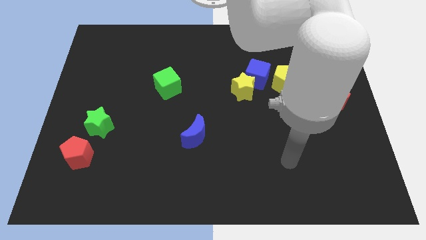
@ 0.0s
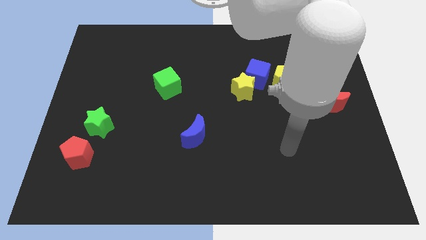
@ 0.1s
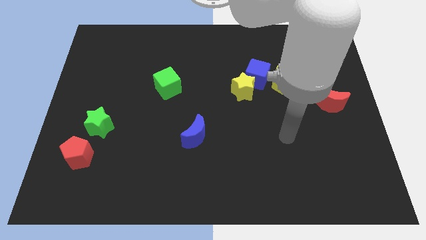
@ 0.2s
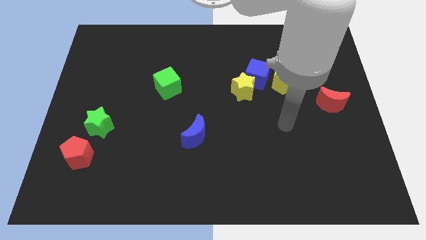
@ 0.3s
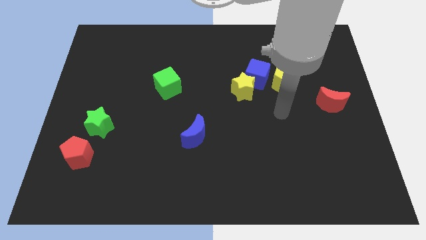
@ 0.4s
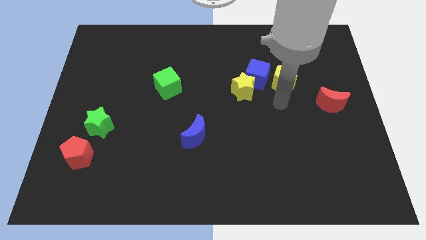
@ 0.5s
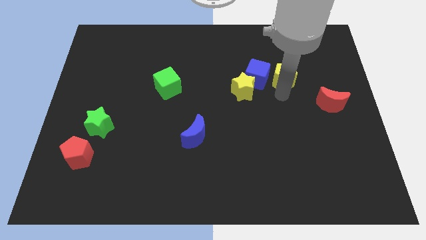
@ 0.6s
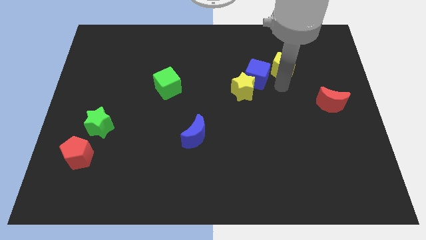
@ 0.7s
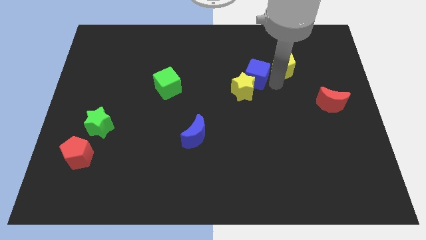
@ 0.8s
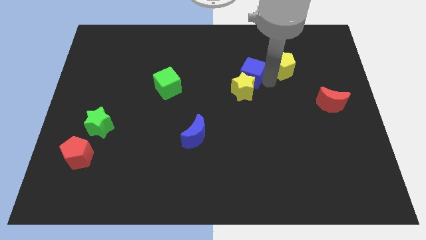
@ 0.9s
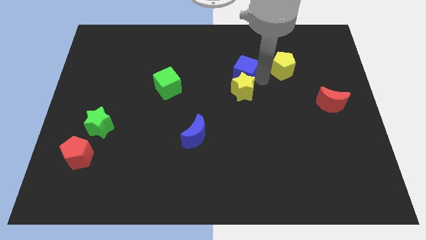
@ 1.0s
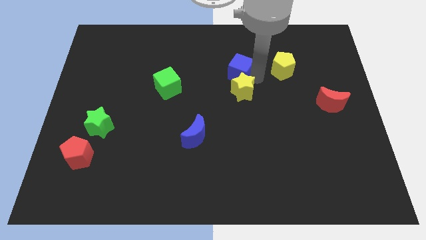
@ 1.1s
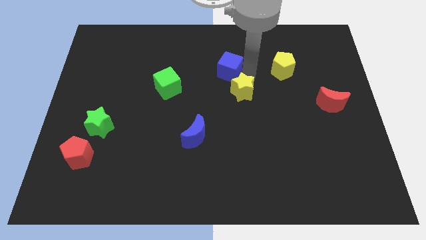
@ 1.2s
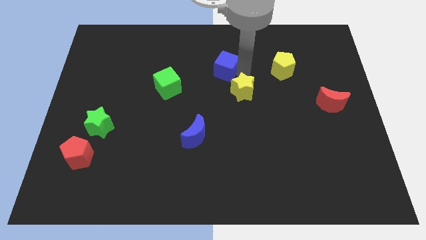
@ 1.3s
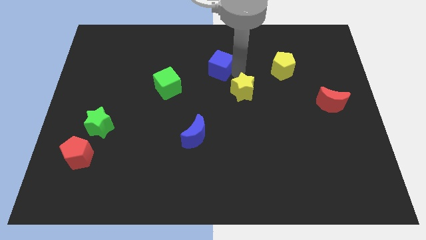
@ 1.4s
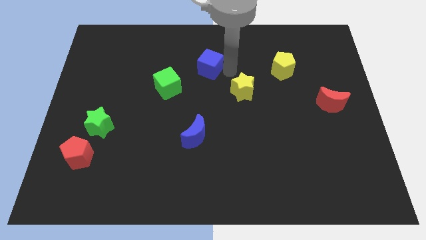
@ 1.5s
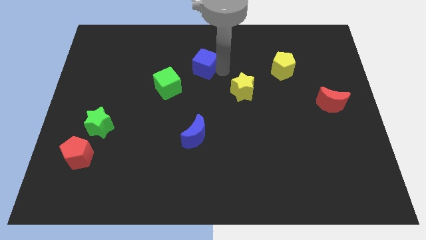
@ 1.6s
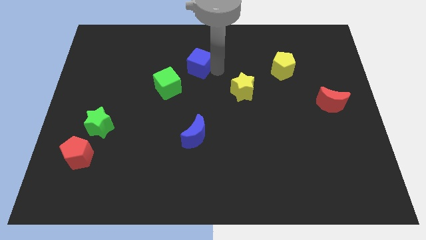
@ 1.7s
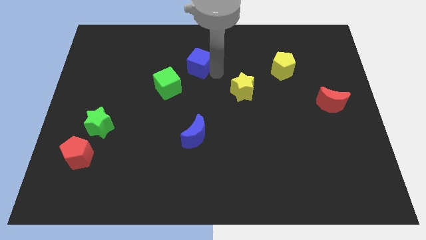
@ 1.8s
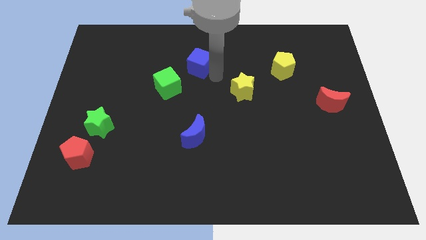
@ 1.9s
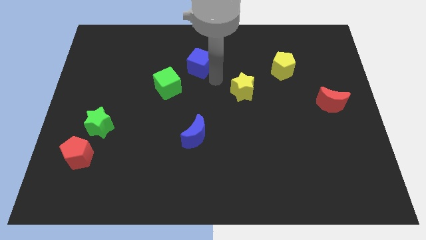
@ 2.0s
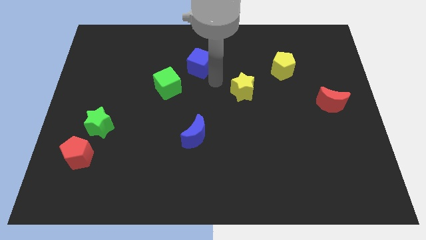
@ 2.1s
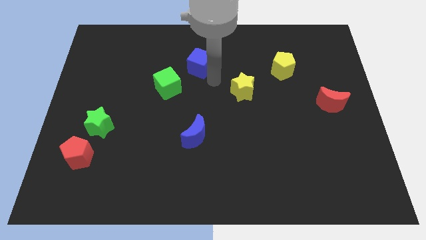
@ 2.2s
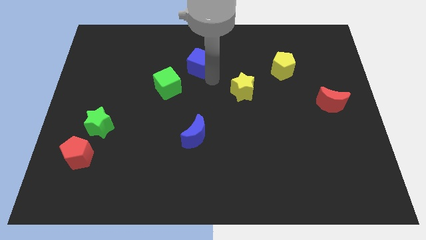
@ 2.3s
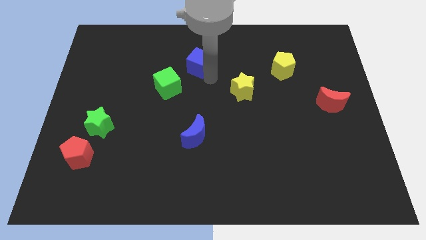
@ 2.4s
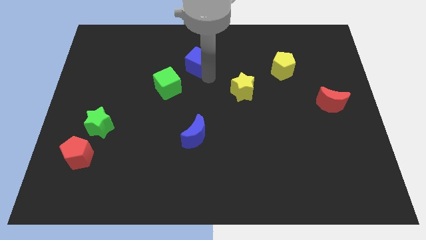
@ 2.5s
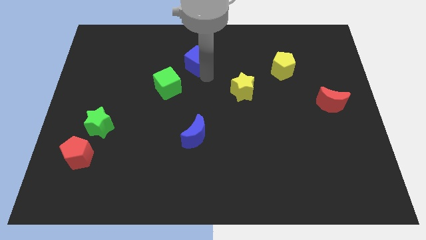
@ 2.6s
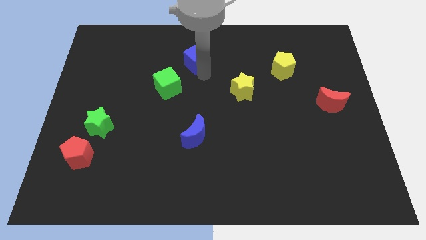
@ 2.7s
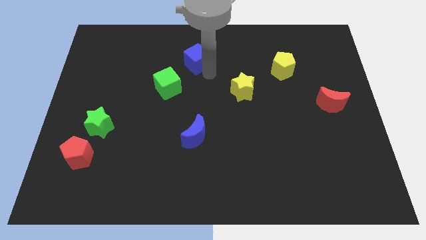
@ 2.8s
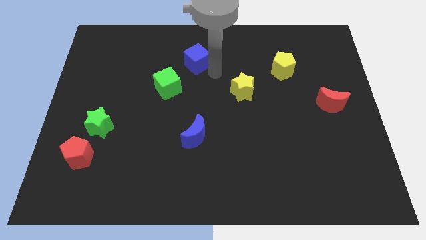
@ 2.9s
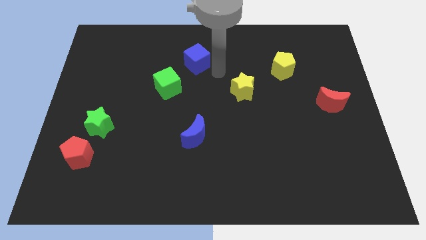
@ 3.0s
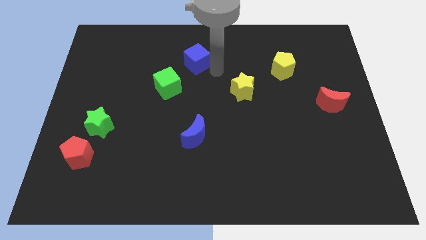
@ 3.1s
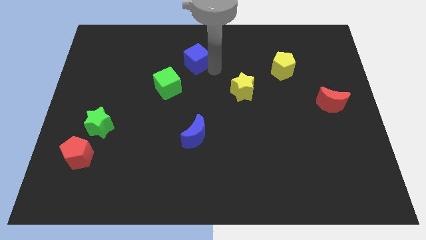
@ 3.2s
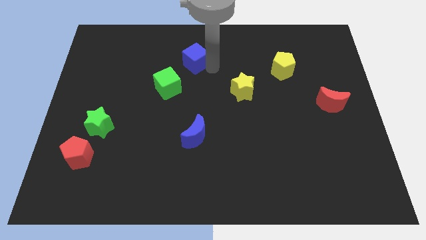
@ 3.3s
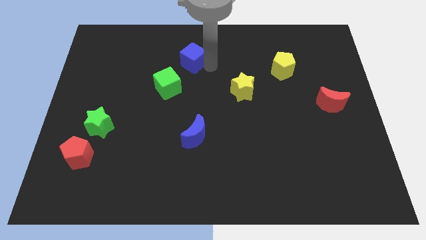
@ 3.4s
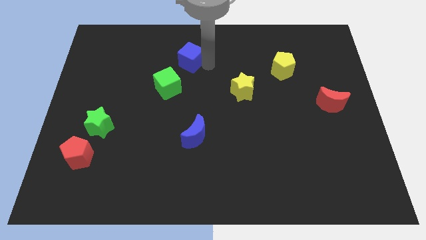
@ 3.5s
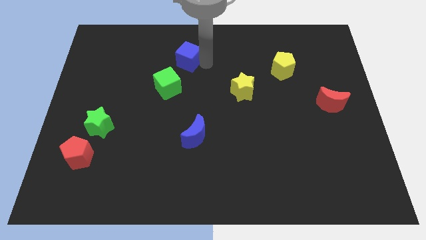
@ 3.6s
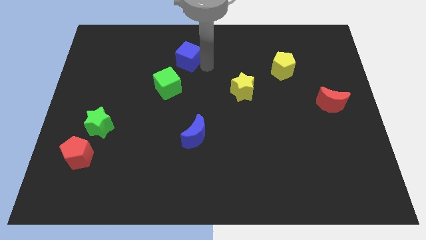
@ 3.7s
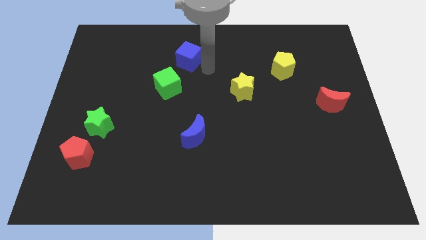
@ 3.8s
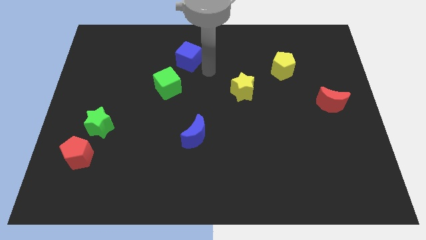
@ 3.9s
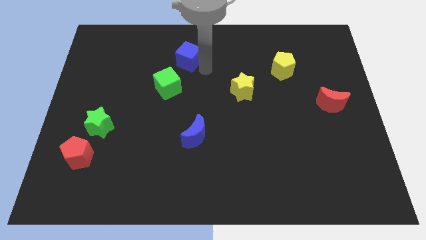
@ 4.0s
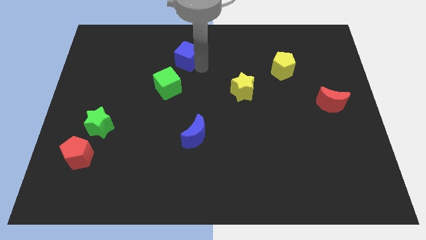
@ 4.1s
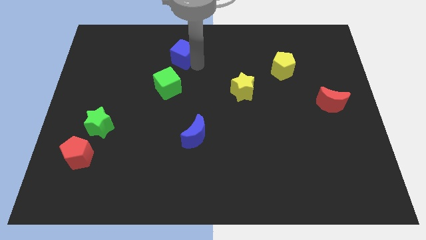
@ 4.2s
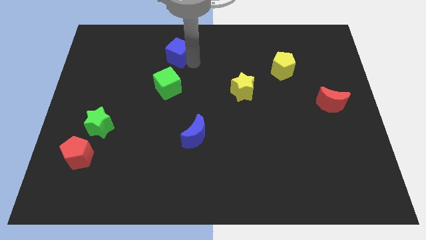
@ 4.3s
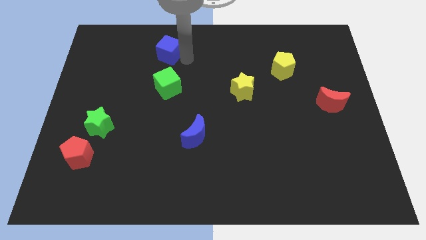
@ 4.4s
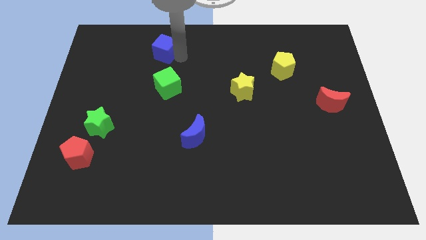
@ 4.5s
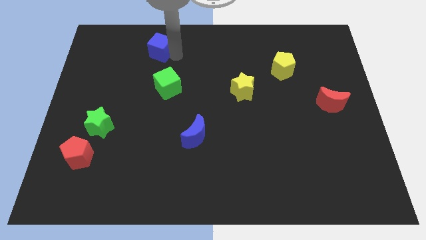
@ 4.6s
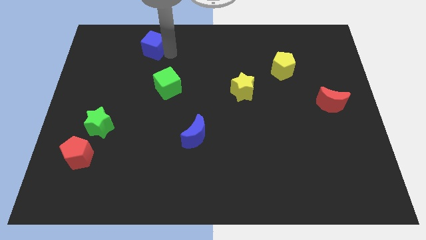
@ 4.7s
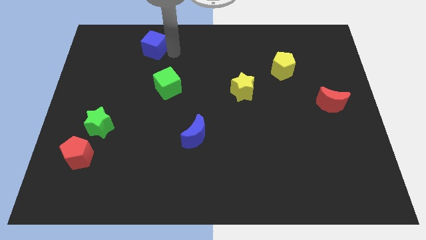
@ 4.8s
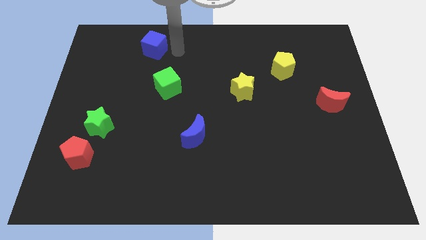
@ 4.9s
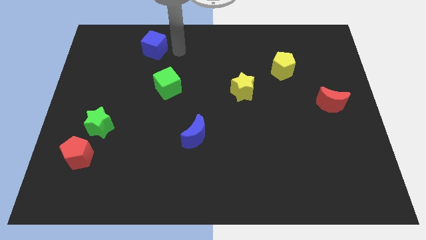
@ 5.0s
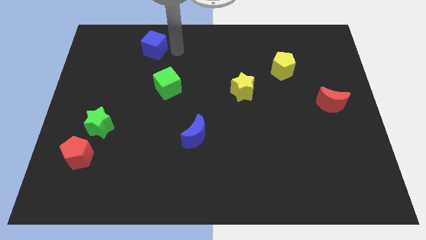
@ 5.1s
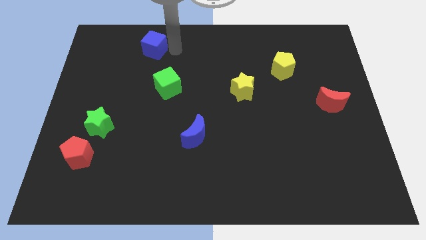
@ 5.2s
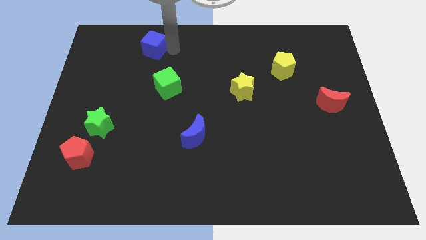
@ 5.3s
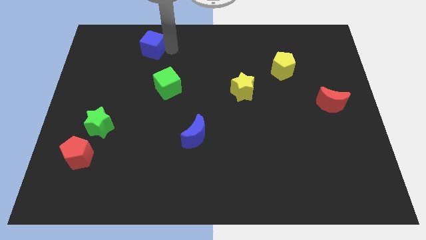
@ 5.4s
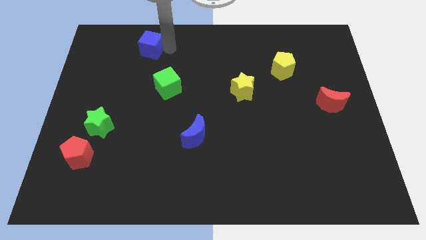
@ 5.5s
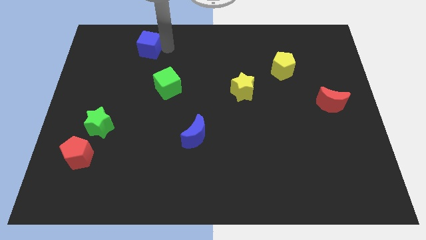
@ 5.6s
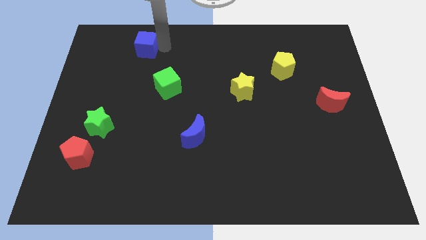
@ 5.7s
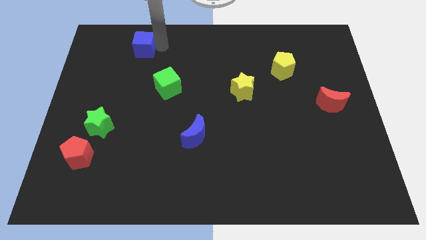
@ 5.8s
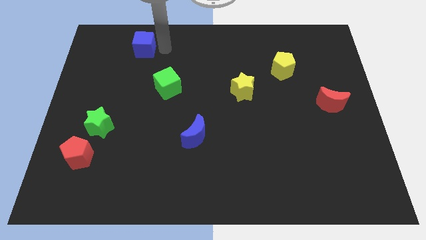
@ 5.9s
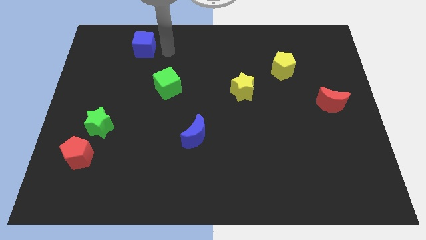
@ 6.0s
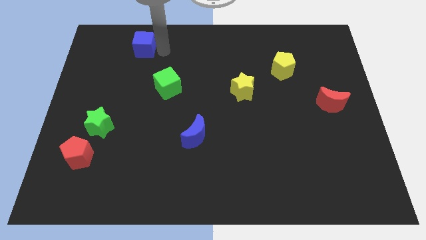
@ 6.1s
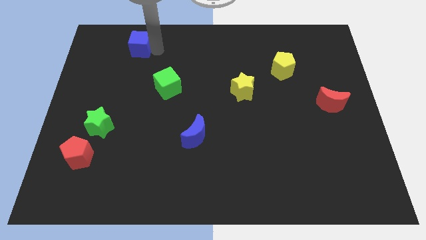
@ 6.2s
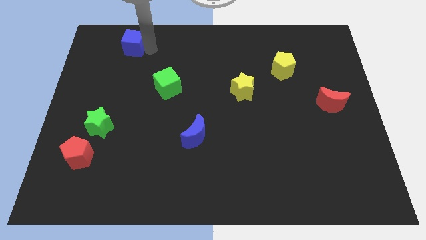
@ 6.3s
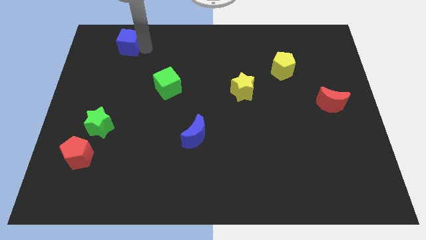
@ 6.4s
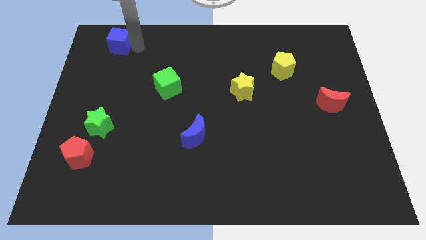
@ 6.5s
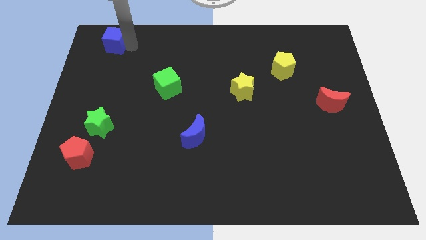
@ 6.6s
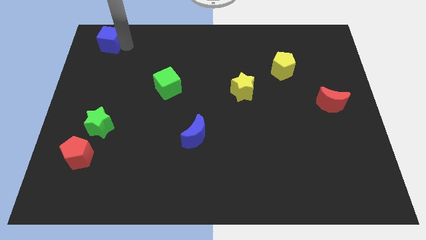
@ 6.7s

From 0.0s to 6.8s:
put the blue cube to the top left
